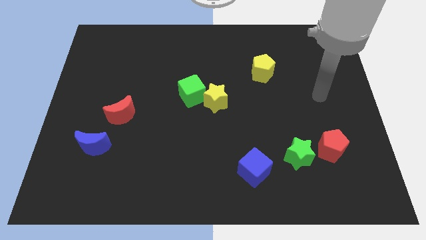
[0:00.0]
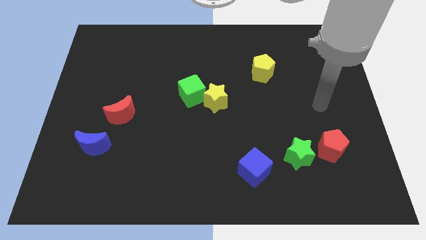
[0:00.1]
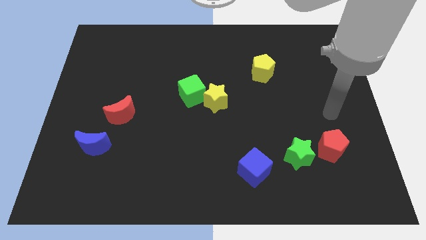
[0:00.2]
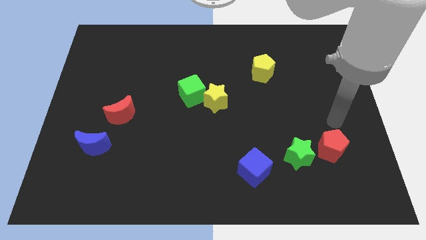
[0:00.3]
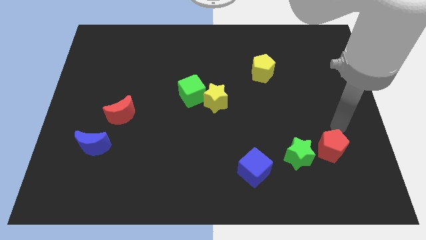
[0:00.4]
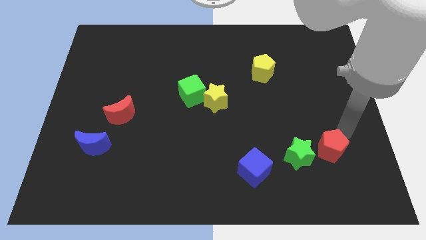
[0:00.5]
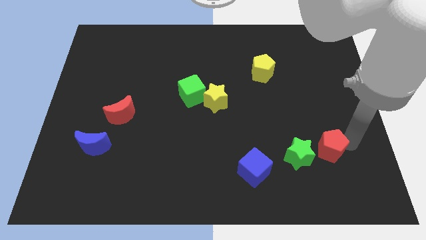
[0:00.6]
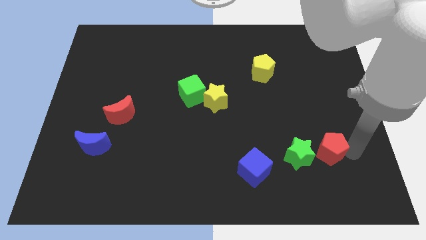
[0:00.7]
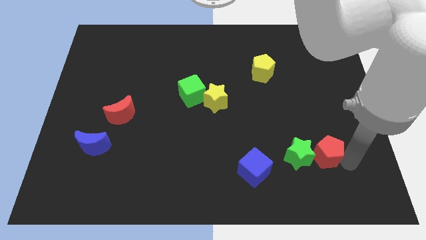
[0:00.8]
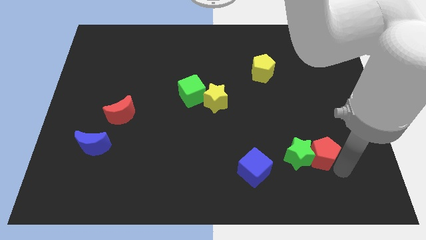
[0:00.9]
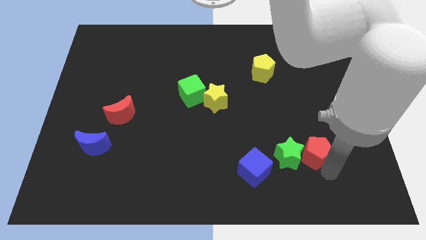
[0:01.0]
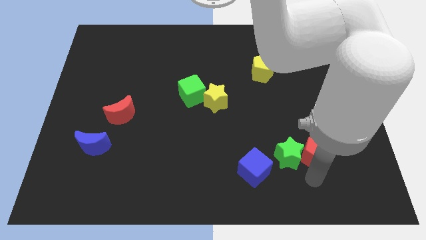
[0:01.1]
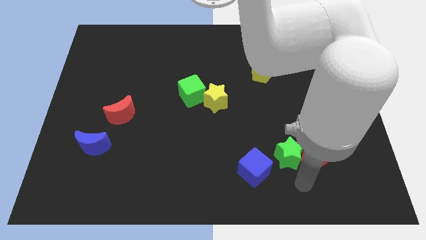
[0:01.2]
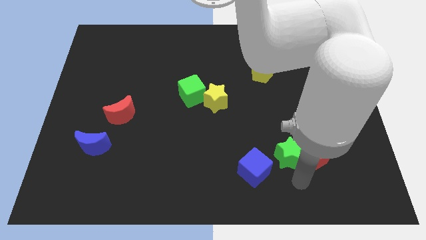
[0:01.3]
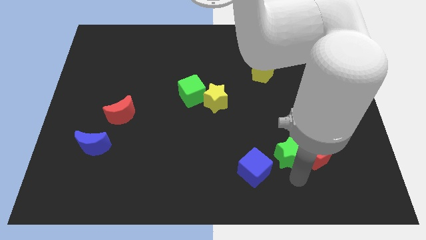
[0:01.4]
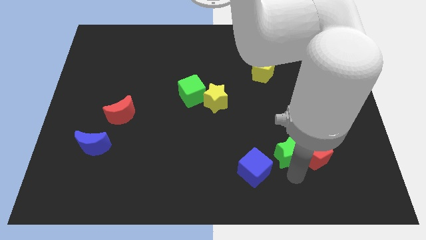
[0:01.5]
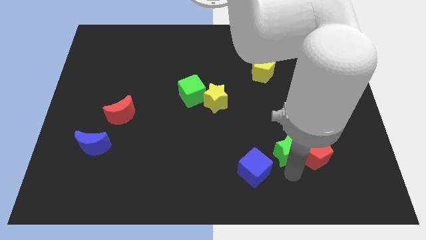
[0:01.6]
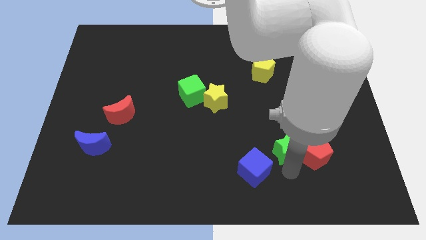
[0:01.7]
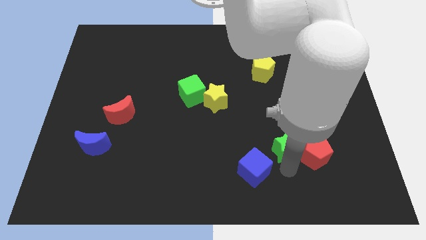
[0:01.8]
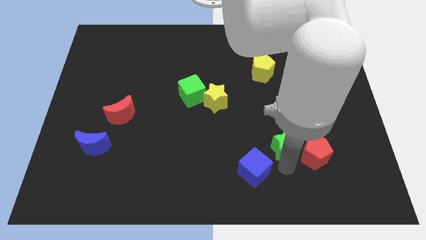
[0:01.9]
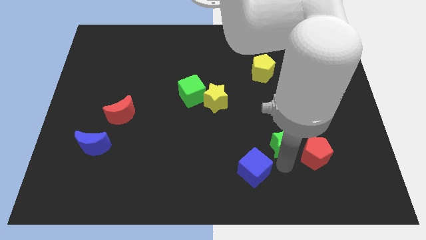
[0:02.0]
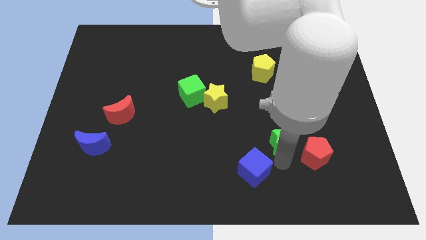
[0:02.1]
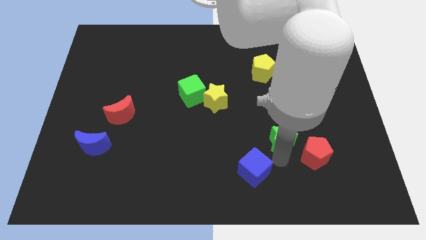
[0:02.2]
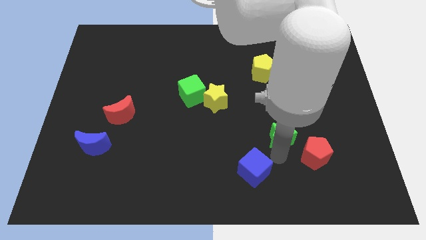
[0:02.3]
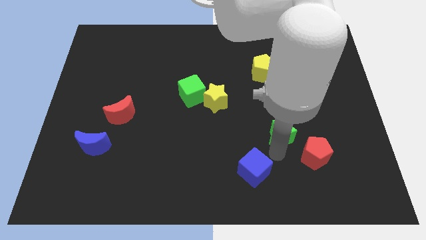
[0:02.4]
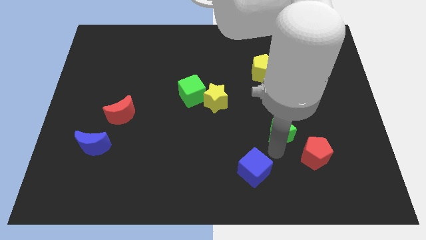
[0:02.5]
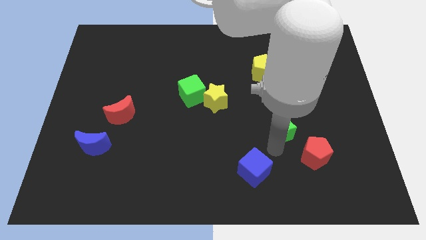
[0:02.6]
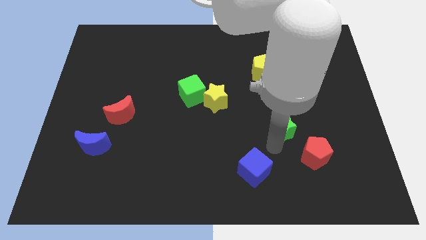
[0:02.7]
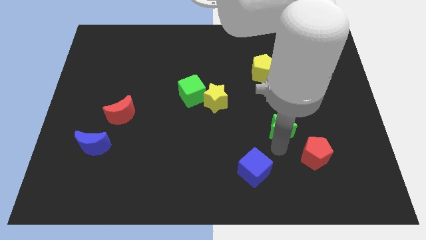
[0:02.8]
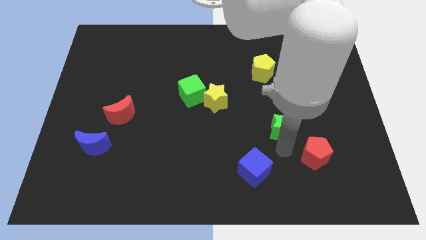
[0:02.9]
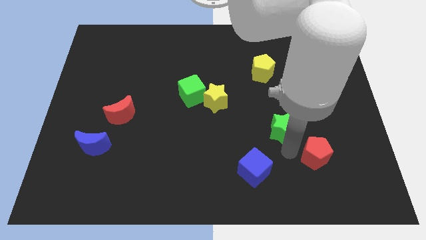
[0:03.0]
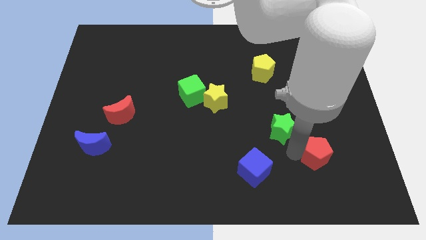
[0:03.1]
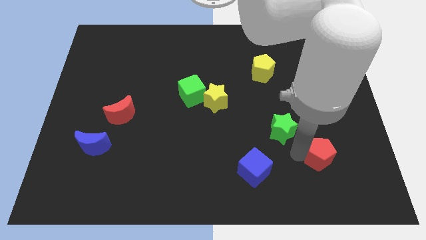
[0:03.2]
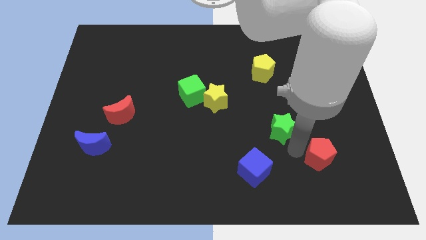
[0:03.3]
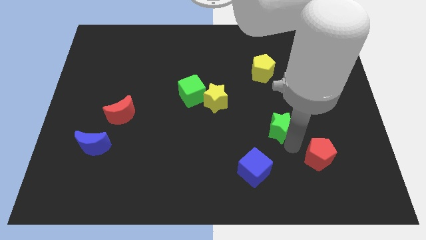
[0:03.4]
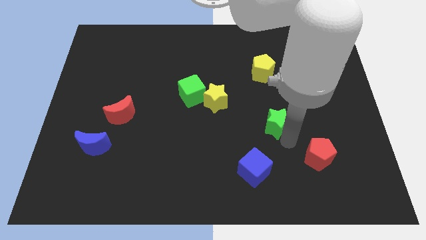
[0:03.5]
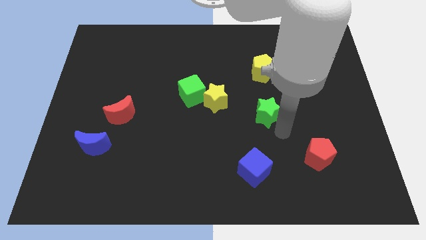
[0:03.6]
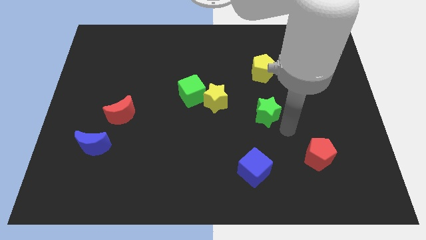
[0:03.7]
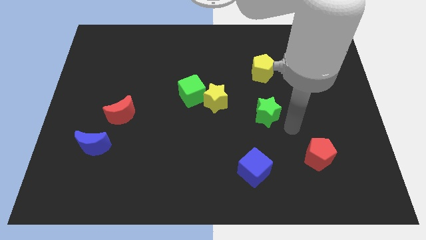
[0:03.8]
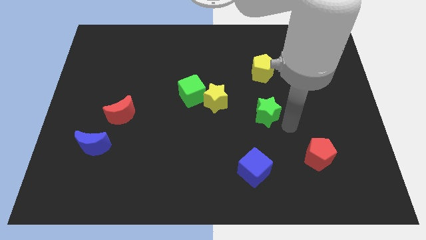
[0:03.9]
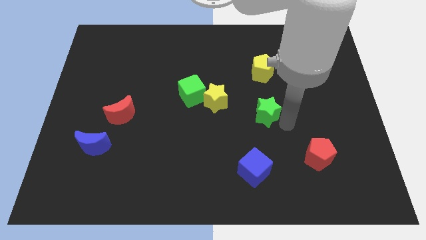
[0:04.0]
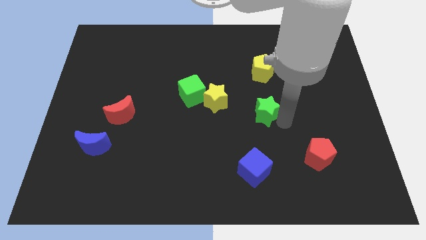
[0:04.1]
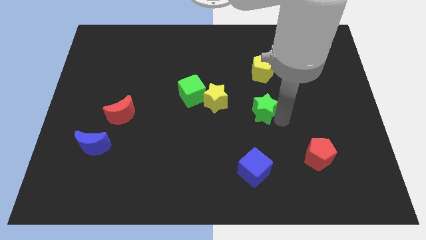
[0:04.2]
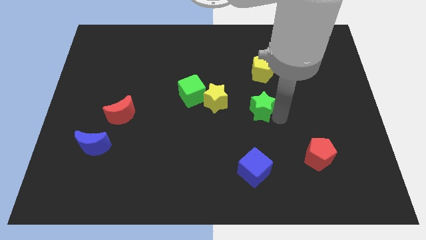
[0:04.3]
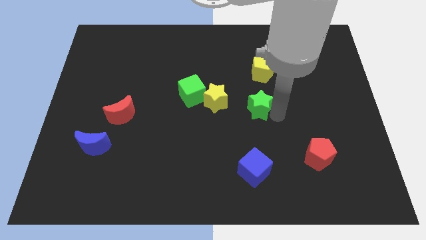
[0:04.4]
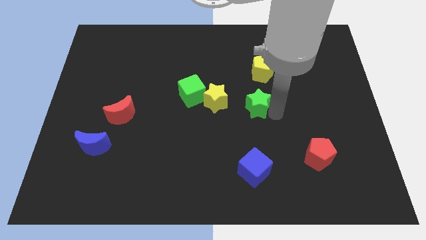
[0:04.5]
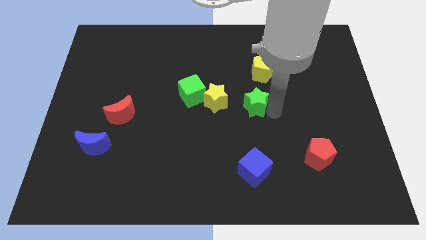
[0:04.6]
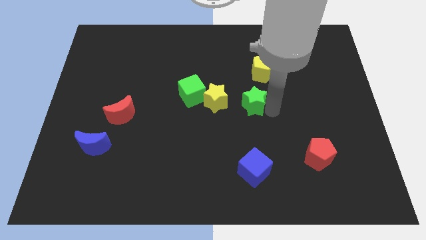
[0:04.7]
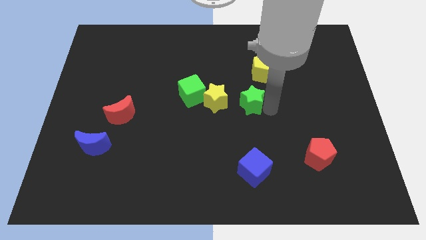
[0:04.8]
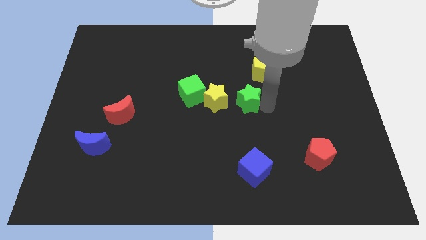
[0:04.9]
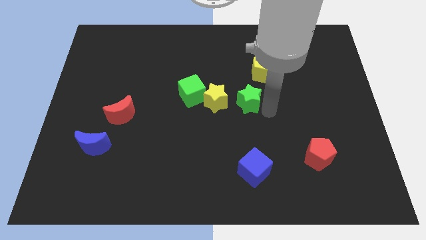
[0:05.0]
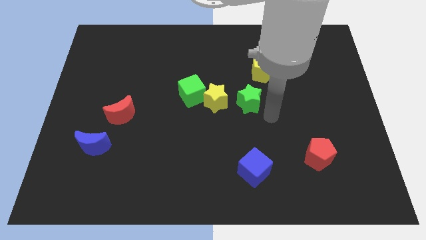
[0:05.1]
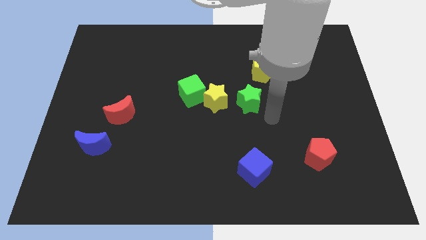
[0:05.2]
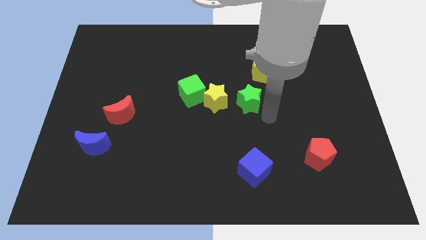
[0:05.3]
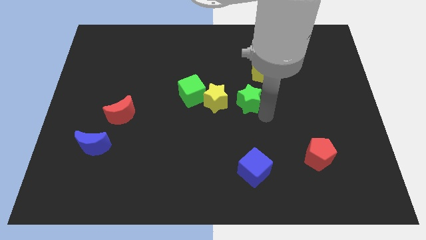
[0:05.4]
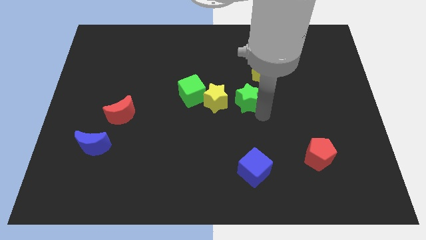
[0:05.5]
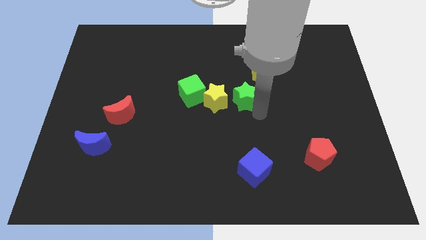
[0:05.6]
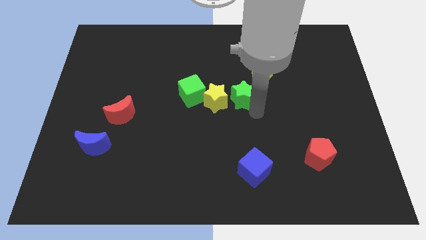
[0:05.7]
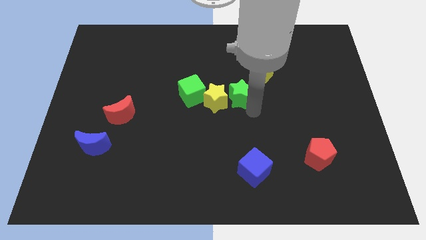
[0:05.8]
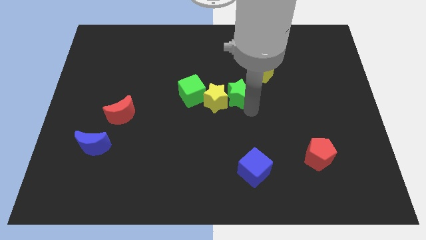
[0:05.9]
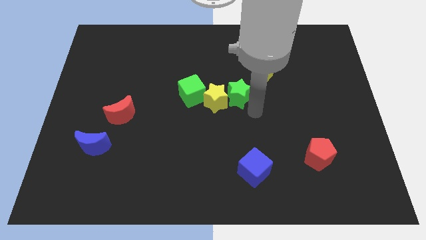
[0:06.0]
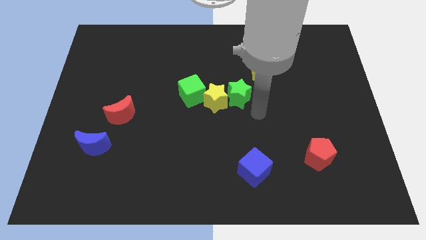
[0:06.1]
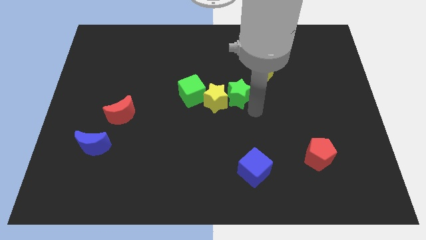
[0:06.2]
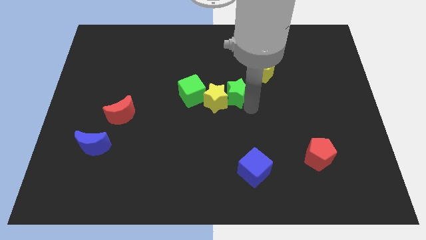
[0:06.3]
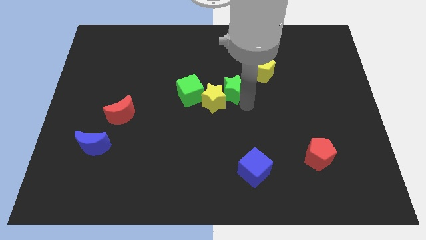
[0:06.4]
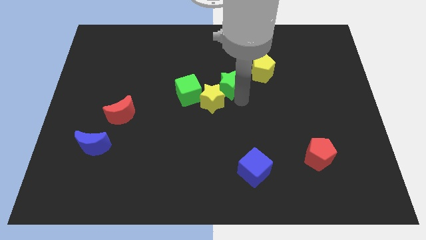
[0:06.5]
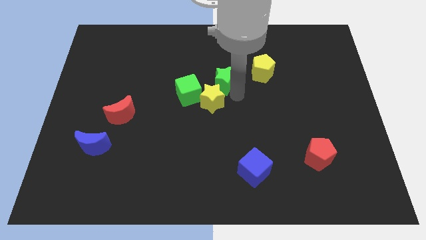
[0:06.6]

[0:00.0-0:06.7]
put the green star to the top right side of the green cube

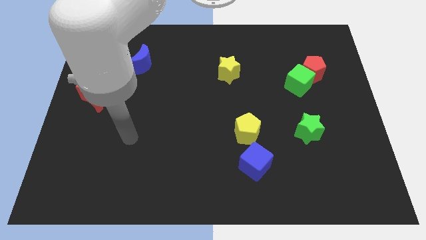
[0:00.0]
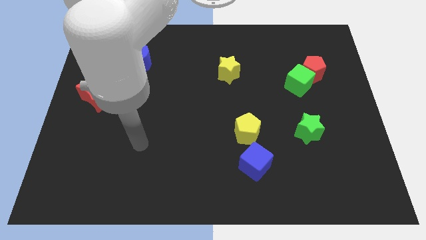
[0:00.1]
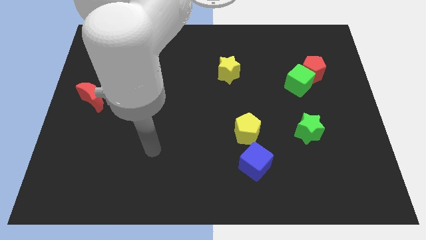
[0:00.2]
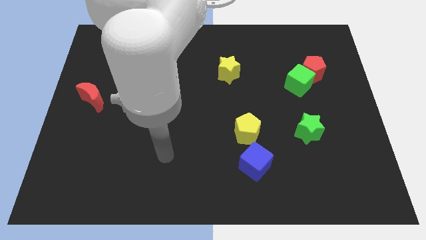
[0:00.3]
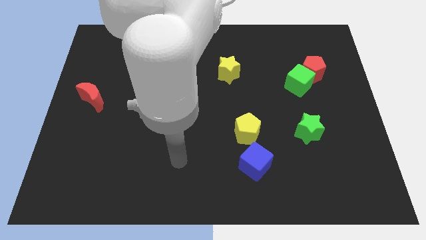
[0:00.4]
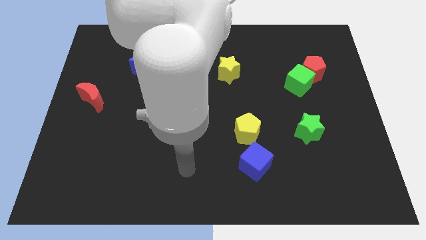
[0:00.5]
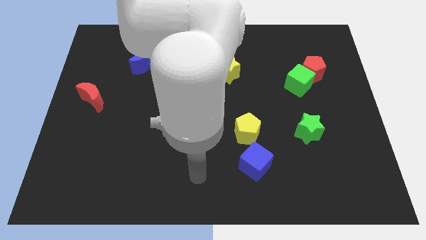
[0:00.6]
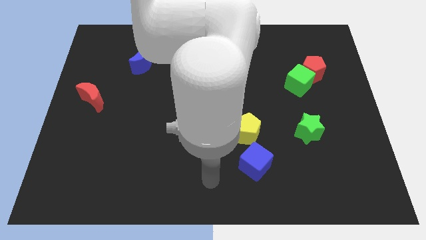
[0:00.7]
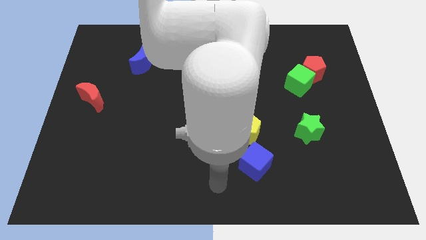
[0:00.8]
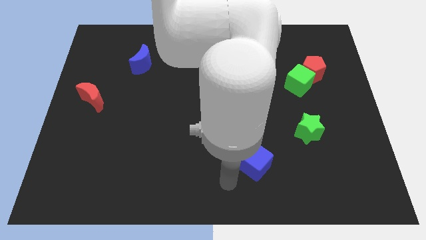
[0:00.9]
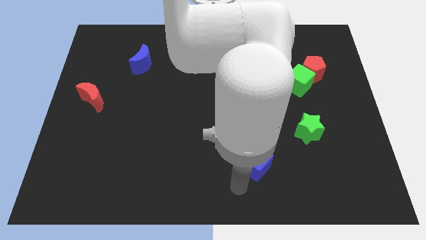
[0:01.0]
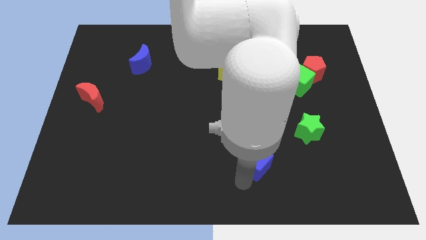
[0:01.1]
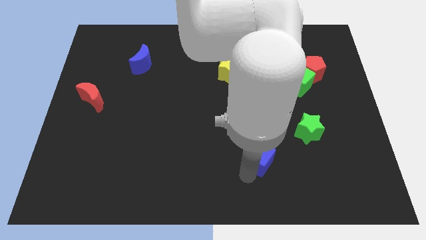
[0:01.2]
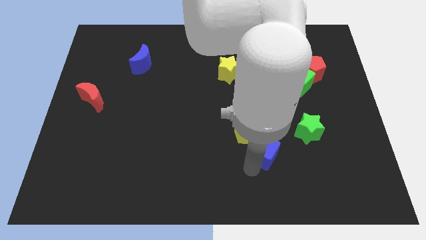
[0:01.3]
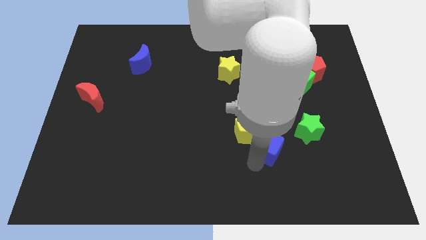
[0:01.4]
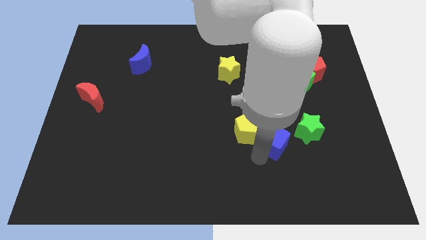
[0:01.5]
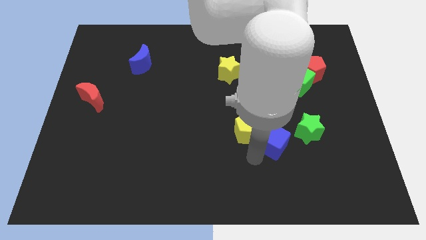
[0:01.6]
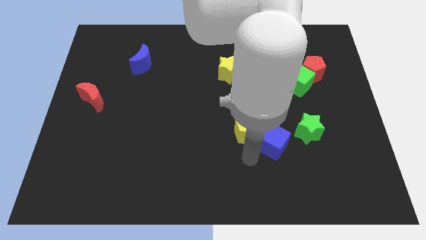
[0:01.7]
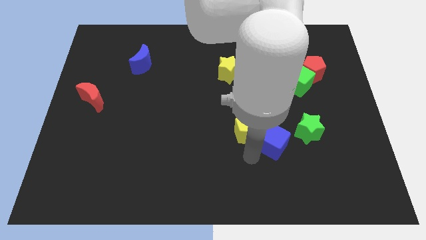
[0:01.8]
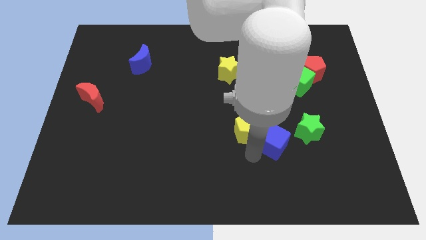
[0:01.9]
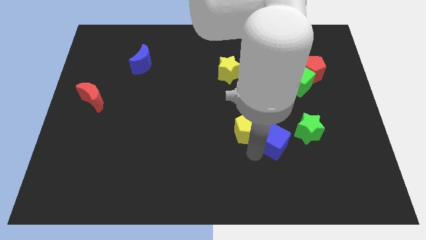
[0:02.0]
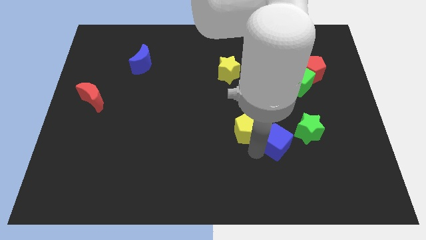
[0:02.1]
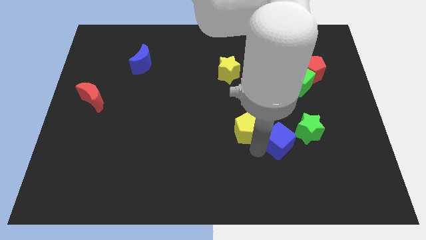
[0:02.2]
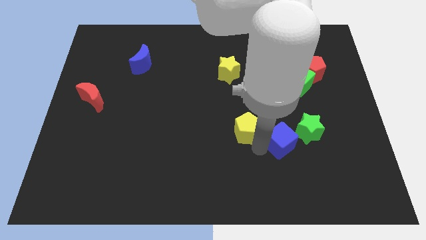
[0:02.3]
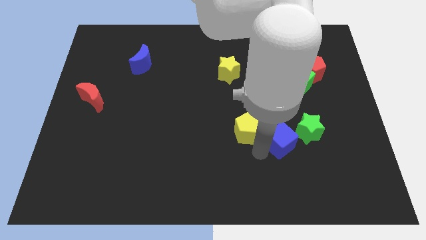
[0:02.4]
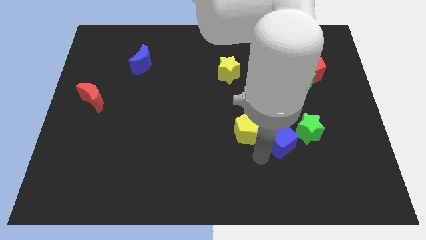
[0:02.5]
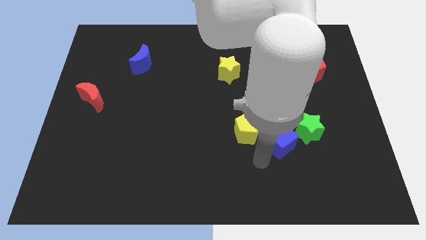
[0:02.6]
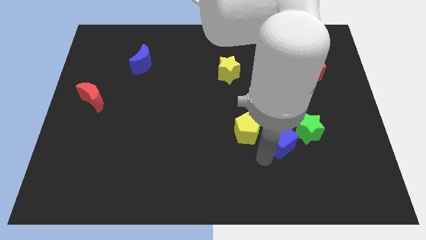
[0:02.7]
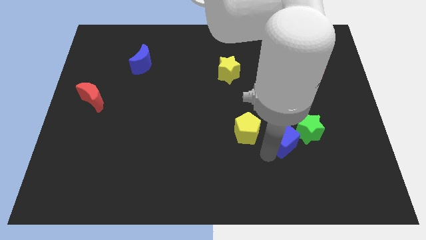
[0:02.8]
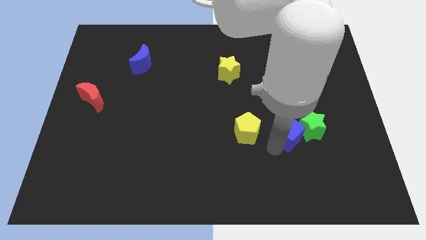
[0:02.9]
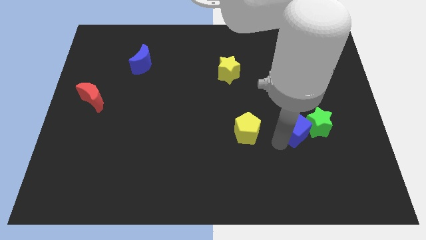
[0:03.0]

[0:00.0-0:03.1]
slide the blue cube to the bottom side of the green cube
